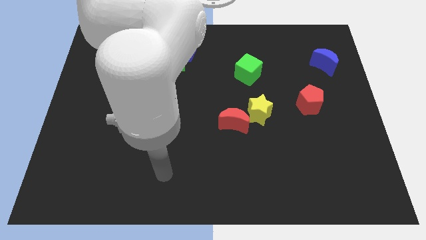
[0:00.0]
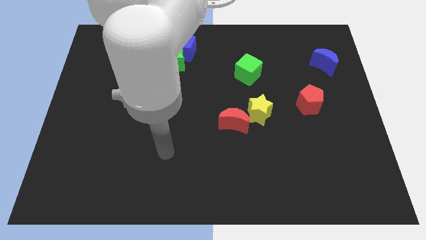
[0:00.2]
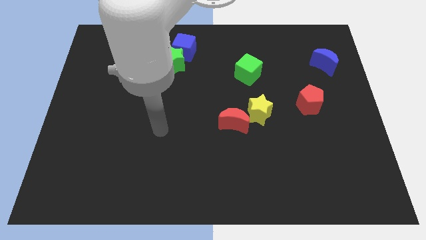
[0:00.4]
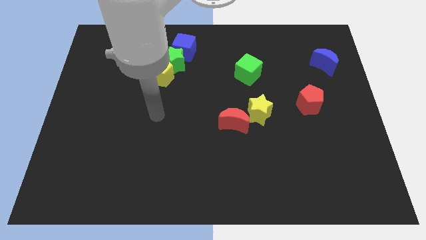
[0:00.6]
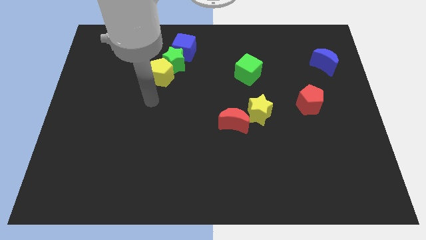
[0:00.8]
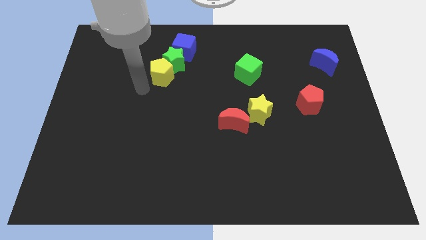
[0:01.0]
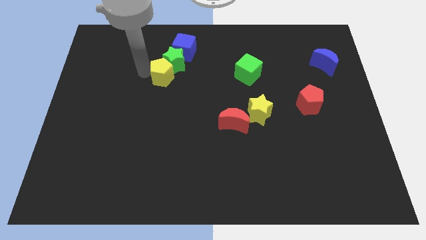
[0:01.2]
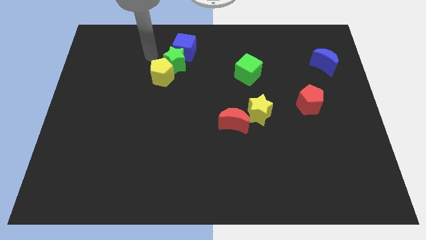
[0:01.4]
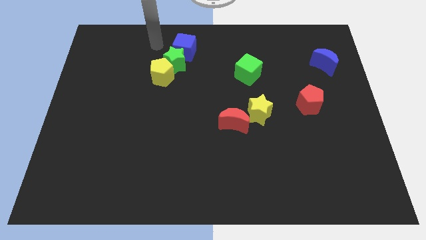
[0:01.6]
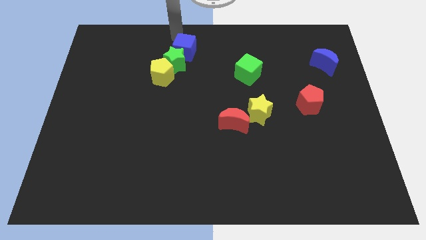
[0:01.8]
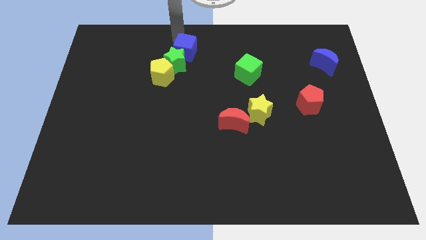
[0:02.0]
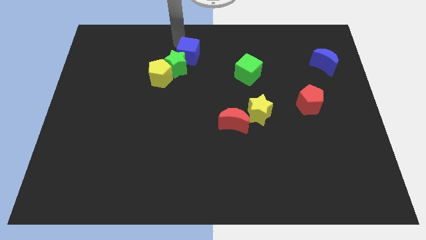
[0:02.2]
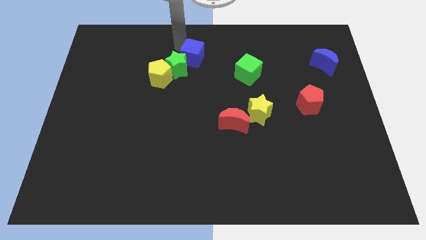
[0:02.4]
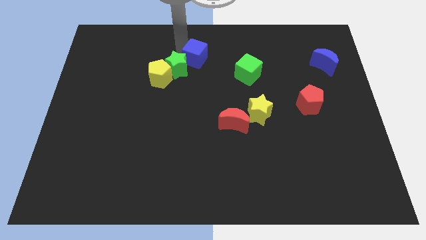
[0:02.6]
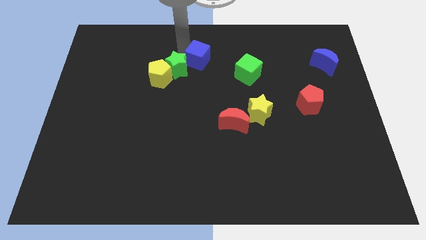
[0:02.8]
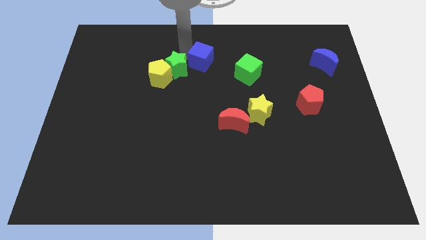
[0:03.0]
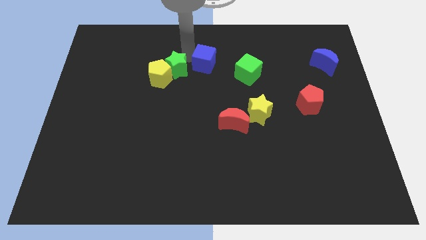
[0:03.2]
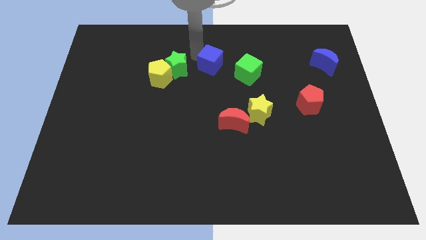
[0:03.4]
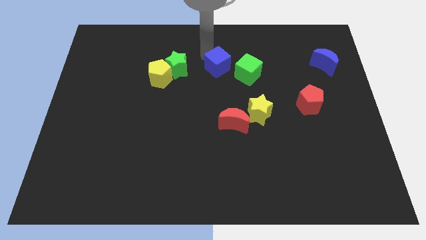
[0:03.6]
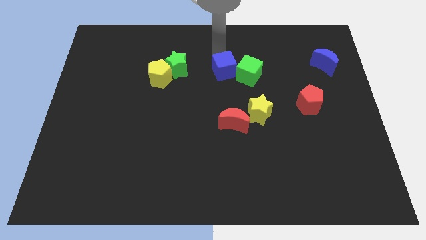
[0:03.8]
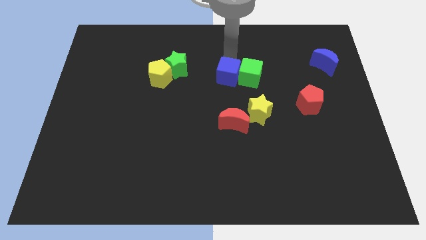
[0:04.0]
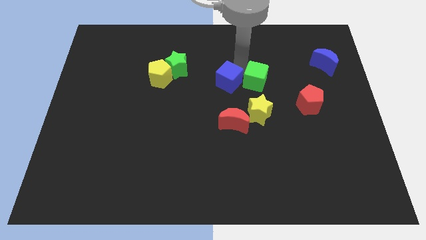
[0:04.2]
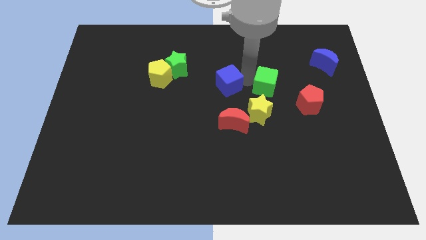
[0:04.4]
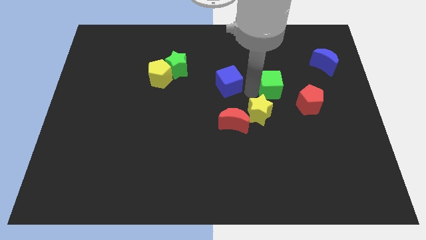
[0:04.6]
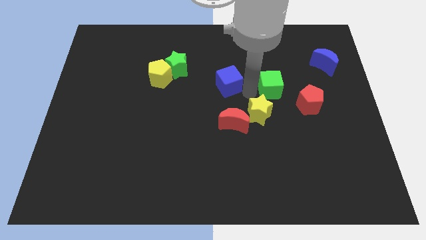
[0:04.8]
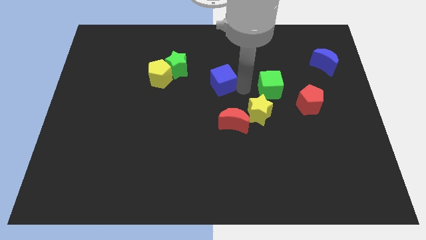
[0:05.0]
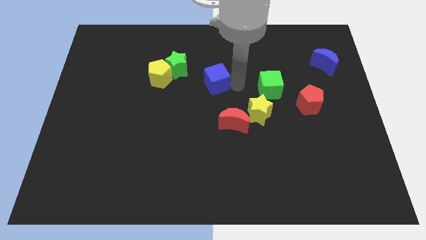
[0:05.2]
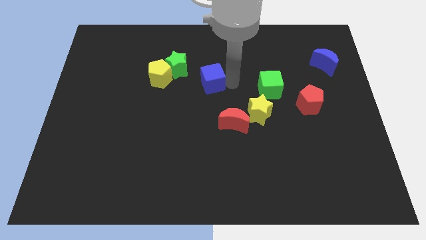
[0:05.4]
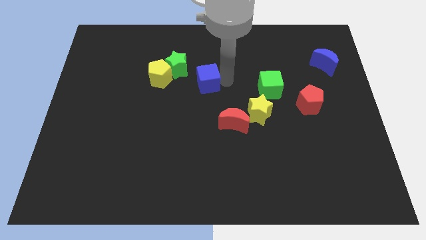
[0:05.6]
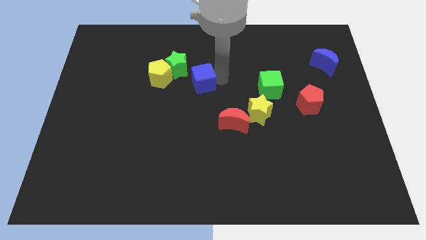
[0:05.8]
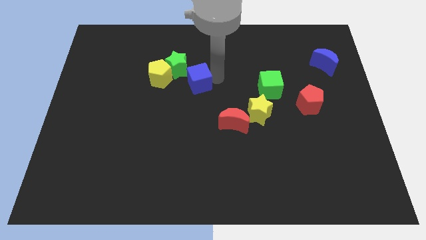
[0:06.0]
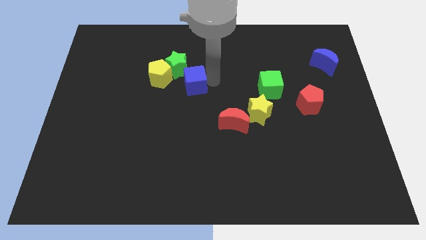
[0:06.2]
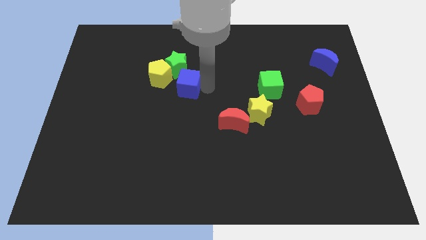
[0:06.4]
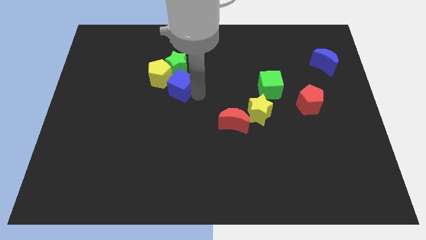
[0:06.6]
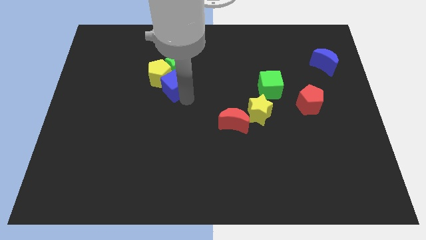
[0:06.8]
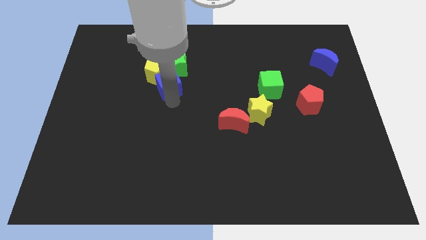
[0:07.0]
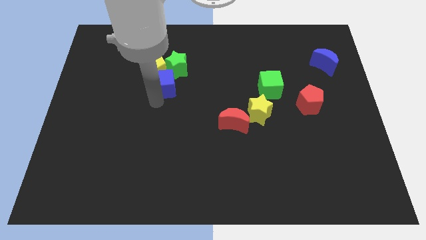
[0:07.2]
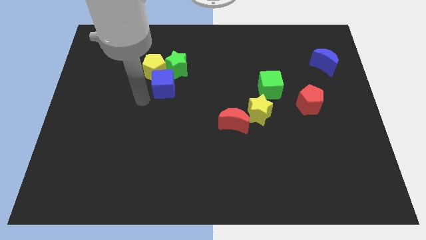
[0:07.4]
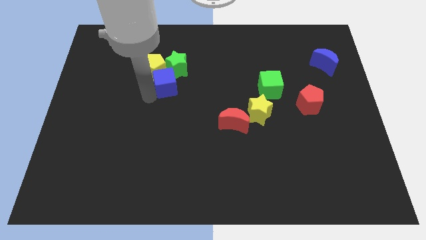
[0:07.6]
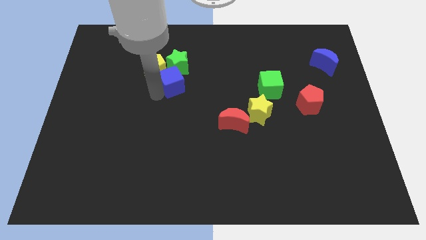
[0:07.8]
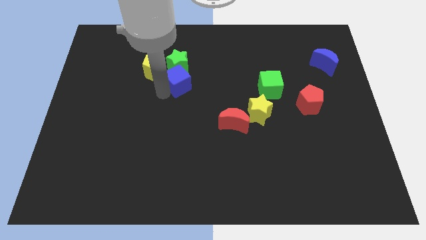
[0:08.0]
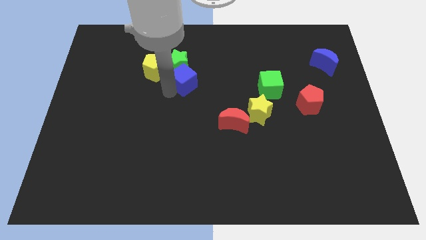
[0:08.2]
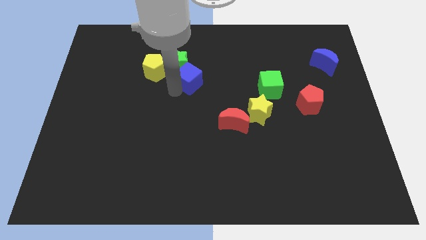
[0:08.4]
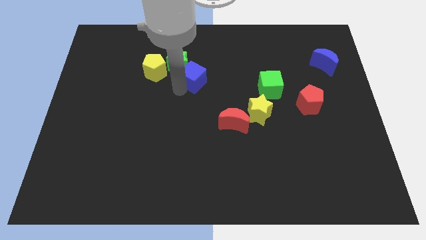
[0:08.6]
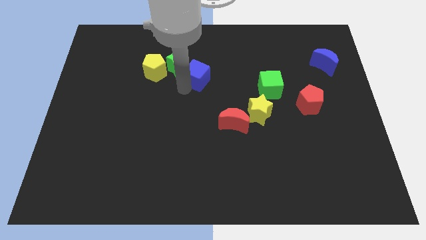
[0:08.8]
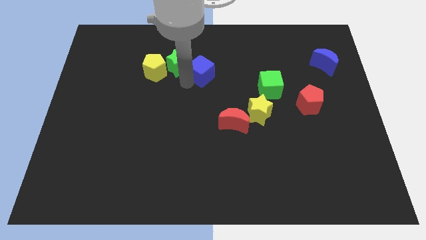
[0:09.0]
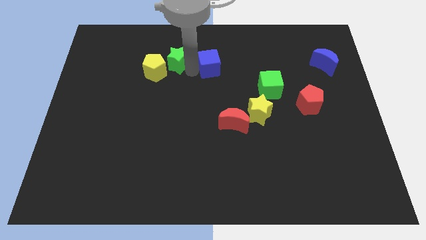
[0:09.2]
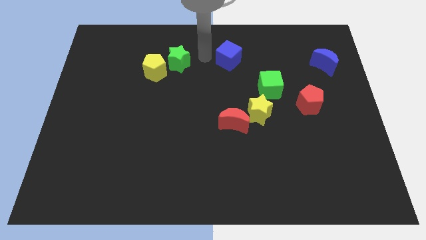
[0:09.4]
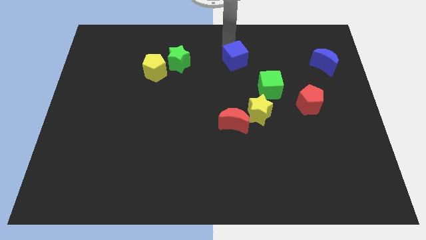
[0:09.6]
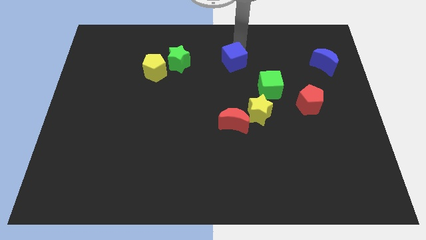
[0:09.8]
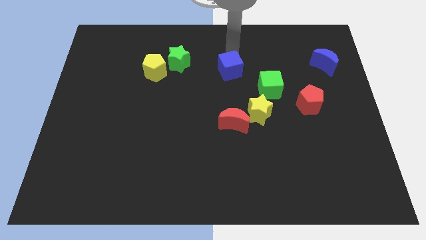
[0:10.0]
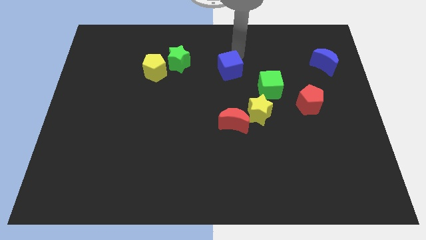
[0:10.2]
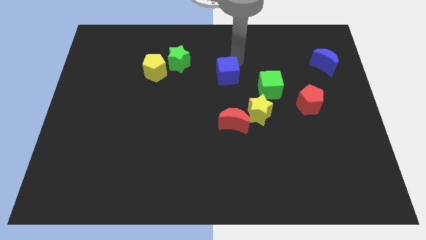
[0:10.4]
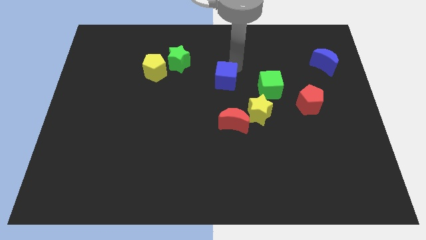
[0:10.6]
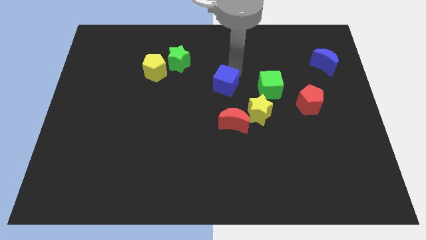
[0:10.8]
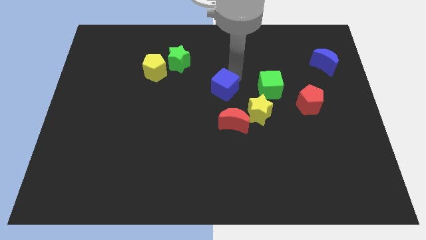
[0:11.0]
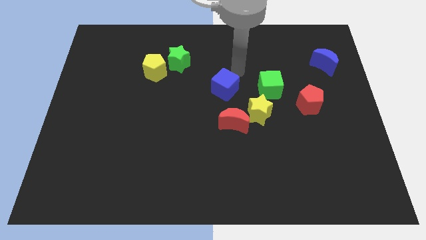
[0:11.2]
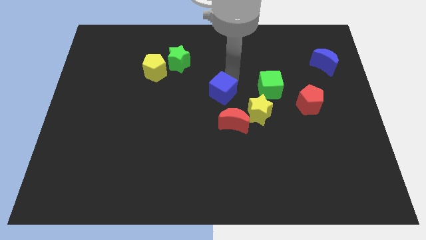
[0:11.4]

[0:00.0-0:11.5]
put the blue cube to the top left of the red moon

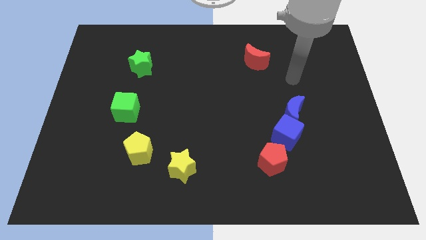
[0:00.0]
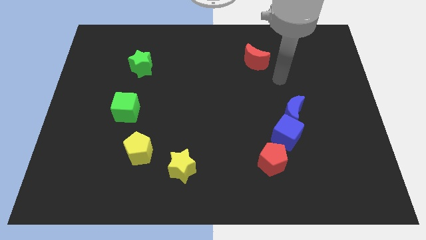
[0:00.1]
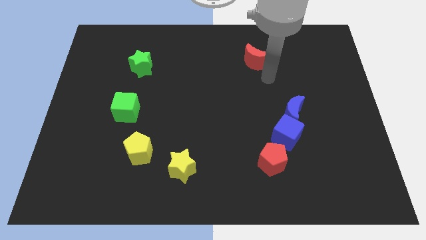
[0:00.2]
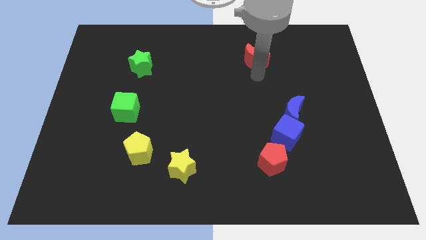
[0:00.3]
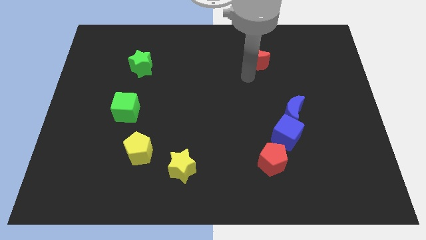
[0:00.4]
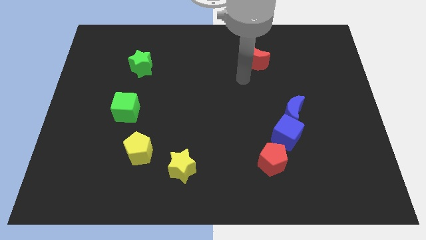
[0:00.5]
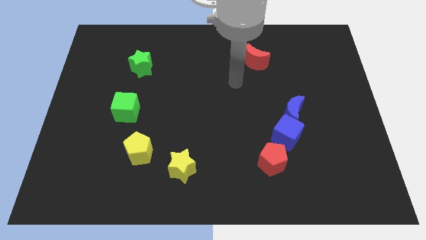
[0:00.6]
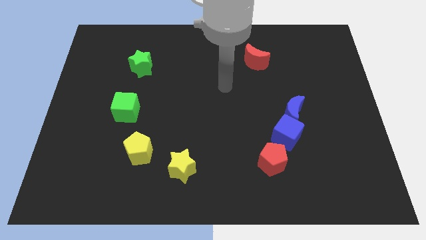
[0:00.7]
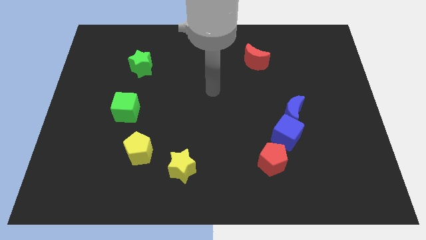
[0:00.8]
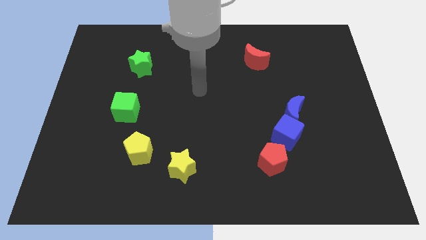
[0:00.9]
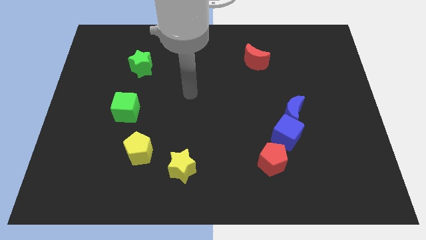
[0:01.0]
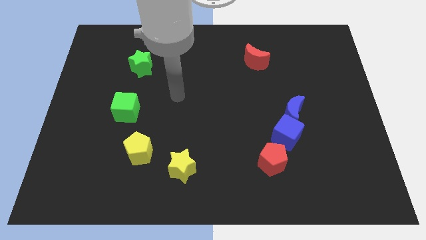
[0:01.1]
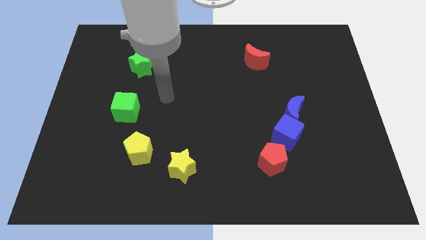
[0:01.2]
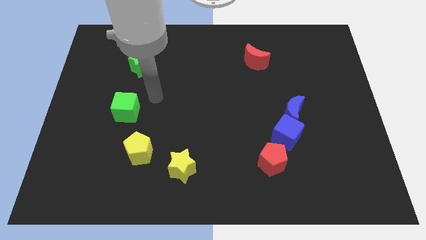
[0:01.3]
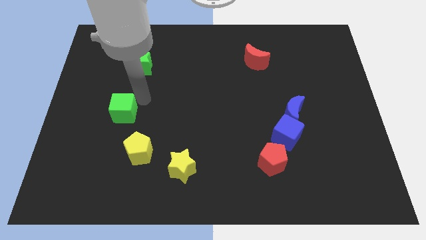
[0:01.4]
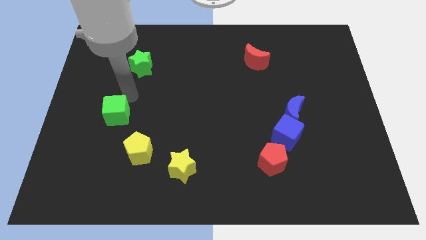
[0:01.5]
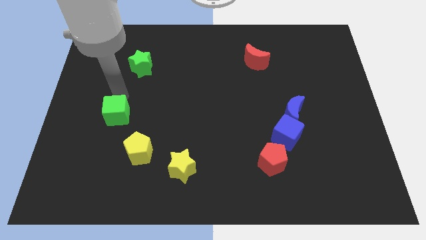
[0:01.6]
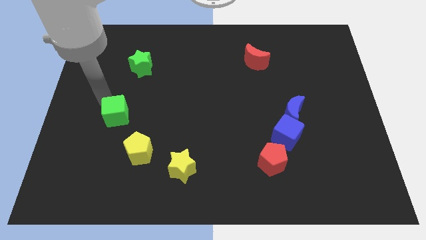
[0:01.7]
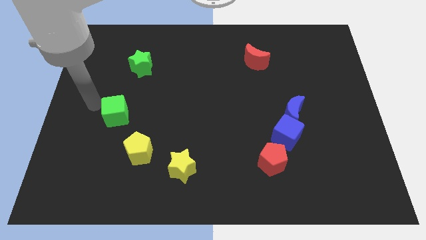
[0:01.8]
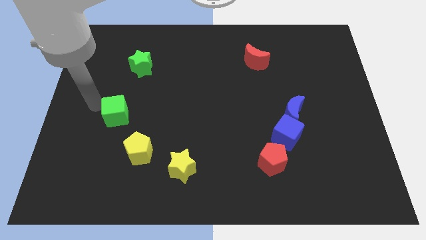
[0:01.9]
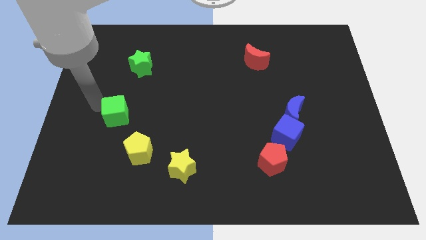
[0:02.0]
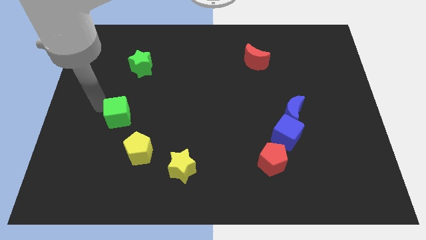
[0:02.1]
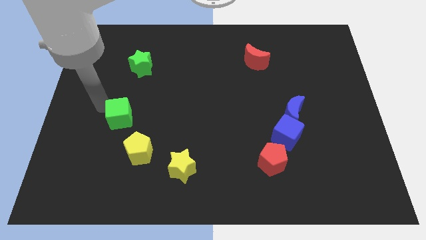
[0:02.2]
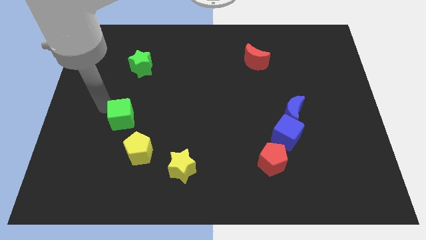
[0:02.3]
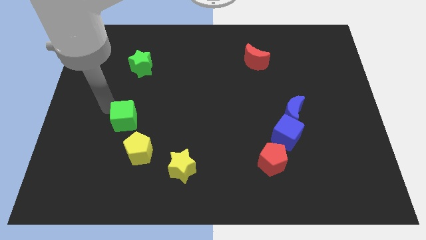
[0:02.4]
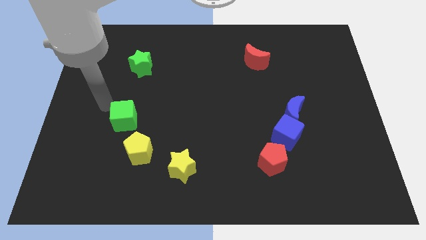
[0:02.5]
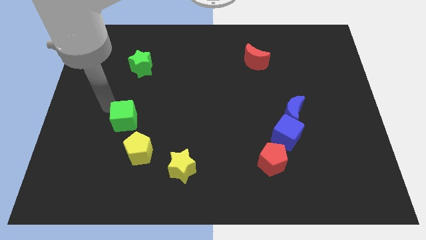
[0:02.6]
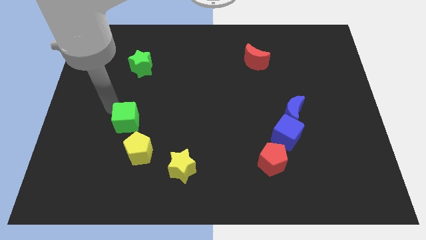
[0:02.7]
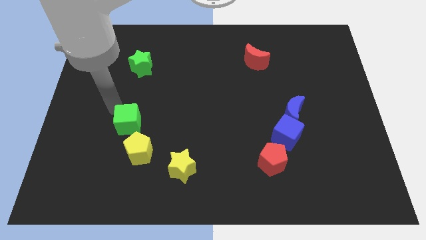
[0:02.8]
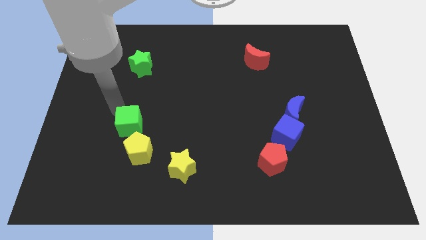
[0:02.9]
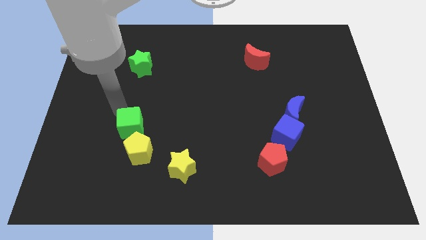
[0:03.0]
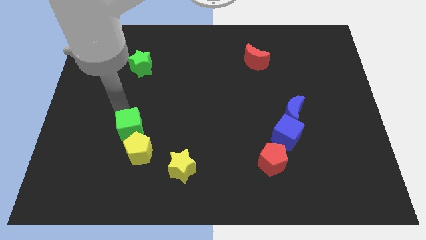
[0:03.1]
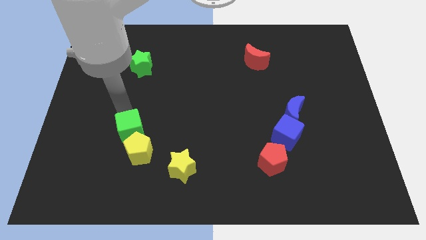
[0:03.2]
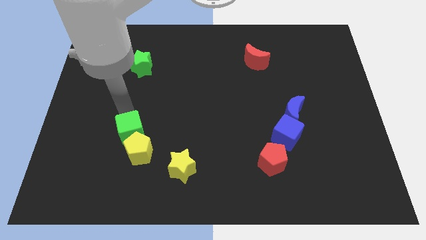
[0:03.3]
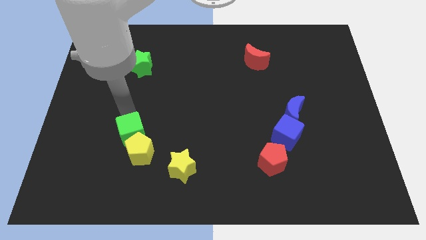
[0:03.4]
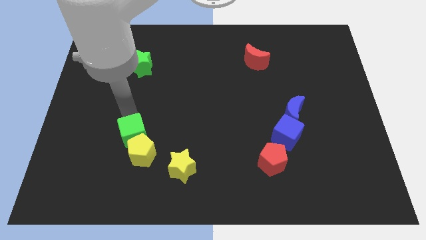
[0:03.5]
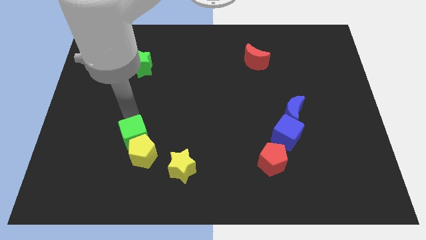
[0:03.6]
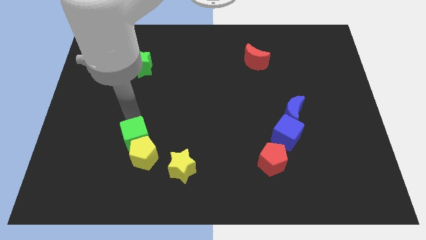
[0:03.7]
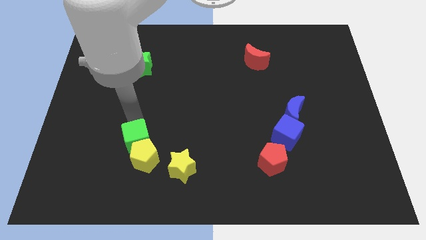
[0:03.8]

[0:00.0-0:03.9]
slide the green cube to the top left side of the yellow star
